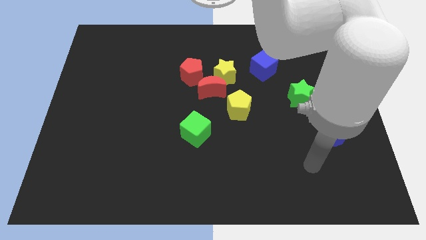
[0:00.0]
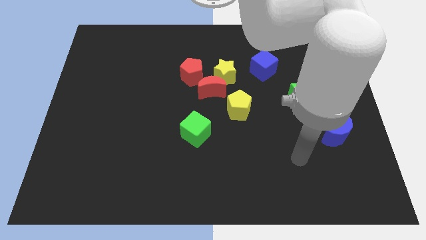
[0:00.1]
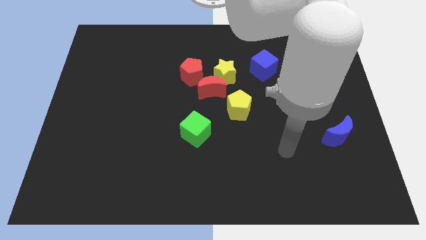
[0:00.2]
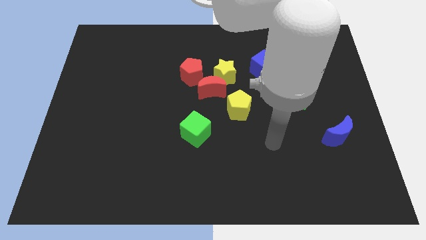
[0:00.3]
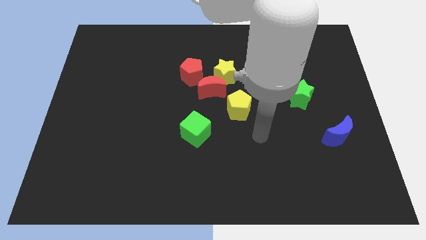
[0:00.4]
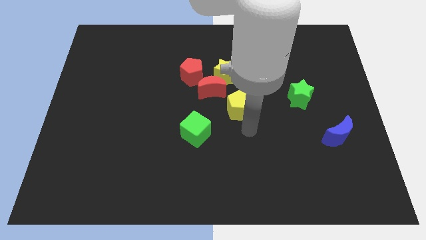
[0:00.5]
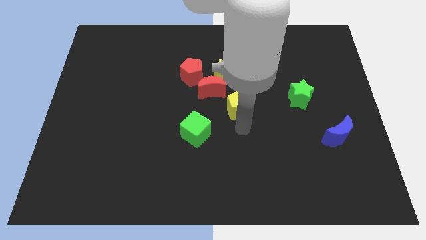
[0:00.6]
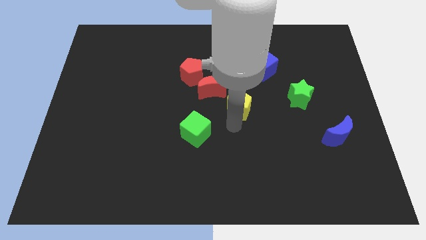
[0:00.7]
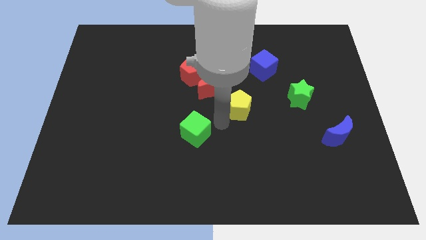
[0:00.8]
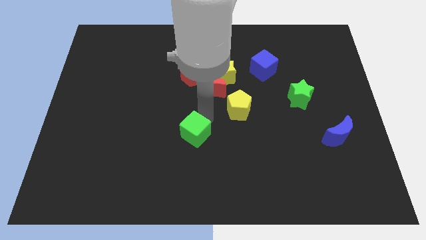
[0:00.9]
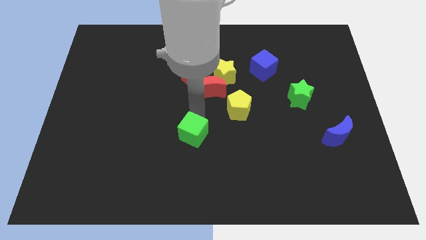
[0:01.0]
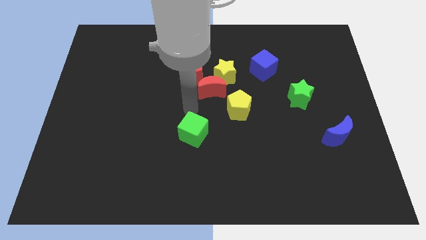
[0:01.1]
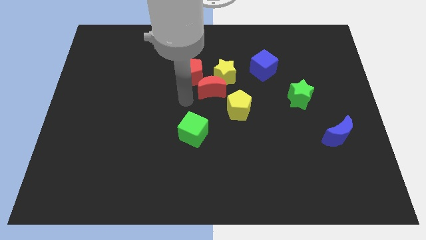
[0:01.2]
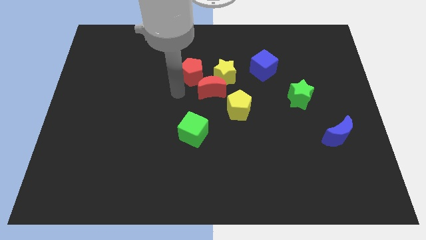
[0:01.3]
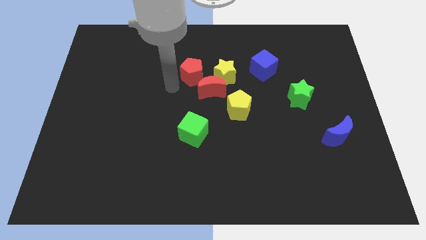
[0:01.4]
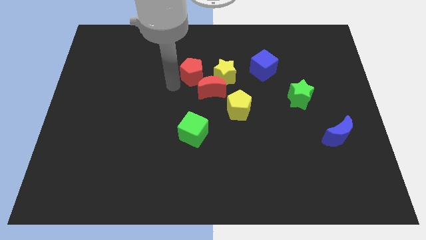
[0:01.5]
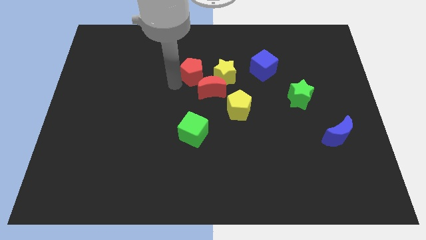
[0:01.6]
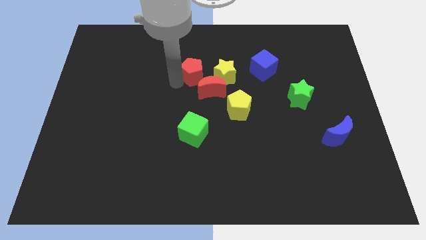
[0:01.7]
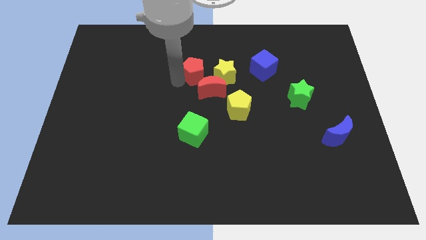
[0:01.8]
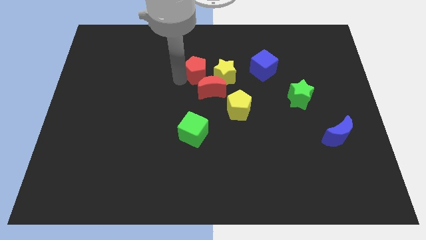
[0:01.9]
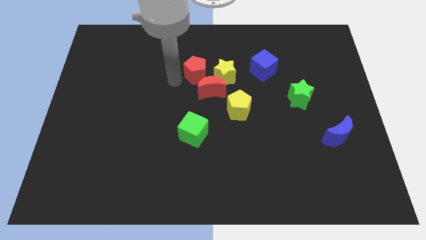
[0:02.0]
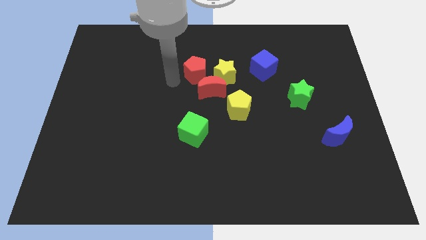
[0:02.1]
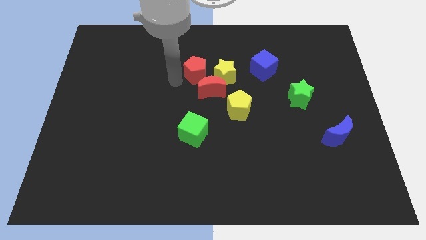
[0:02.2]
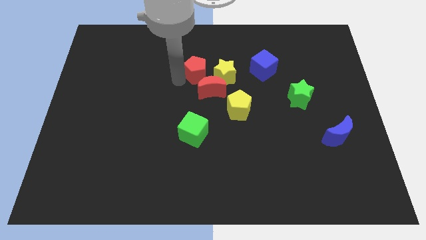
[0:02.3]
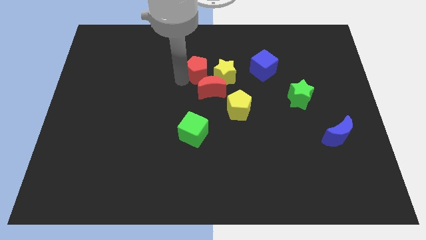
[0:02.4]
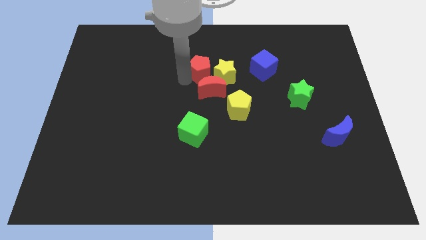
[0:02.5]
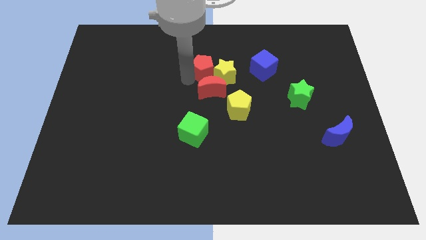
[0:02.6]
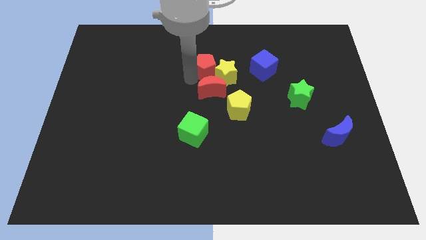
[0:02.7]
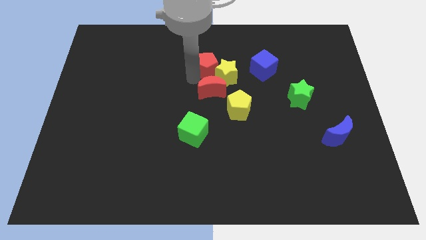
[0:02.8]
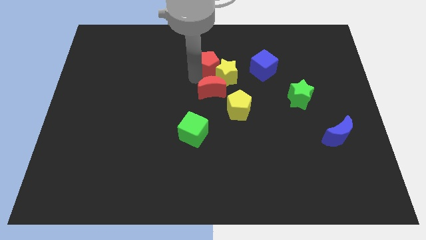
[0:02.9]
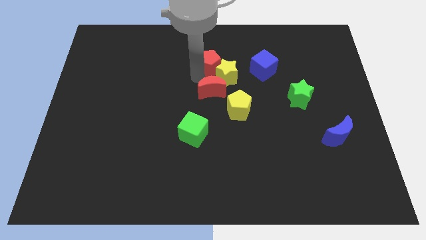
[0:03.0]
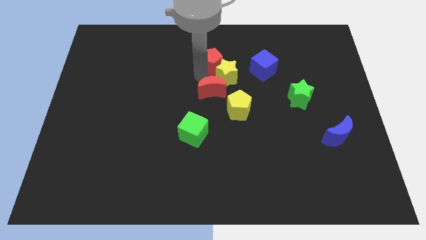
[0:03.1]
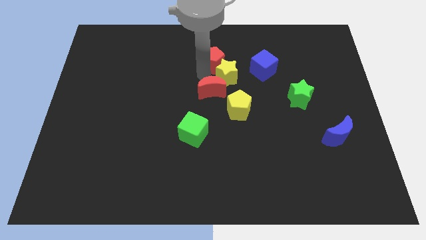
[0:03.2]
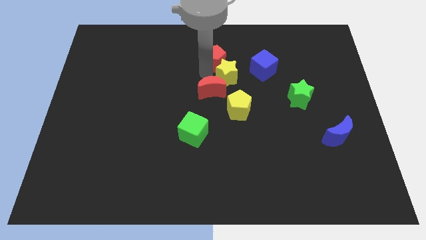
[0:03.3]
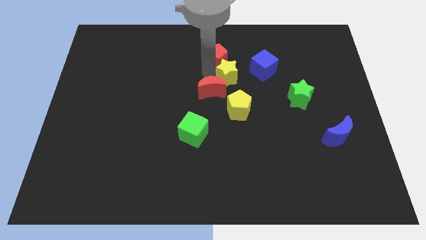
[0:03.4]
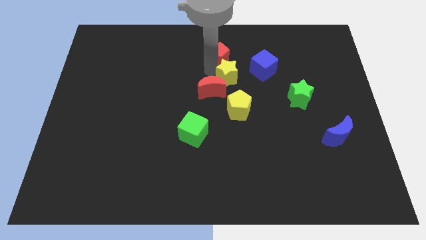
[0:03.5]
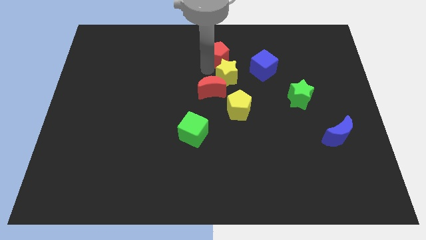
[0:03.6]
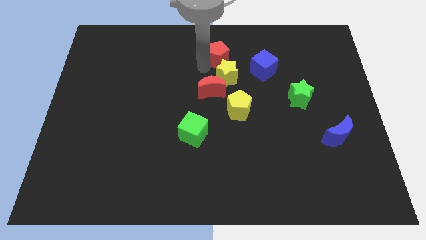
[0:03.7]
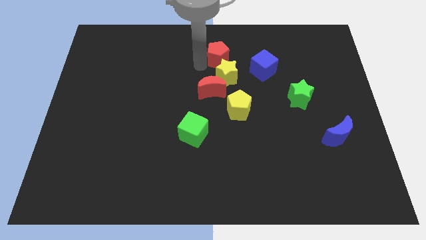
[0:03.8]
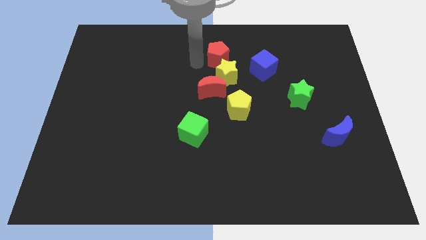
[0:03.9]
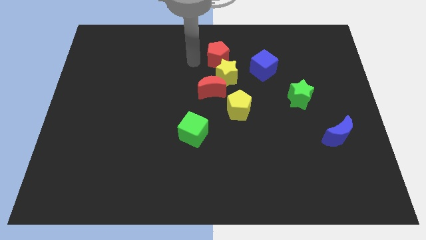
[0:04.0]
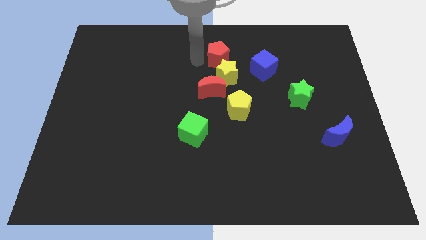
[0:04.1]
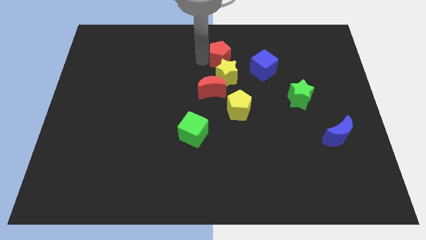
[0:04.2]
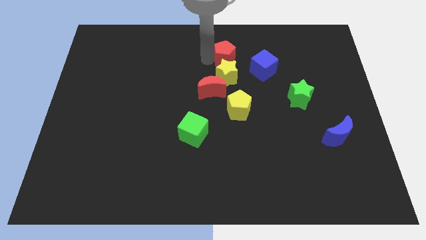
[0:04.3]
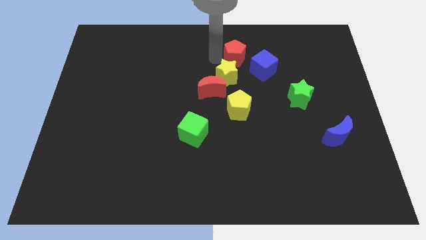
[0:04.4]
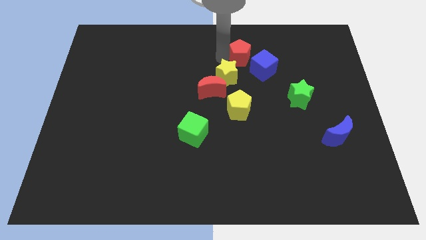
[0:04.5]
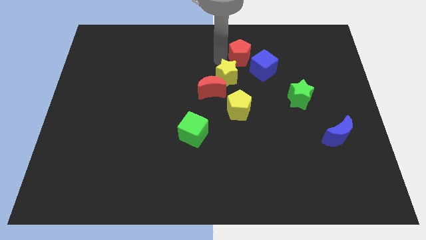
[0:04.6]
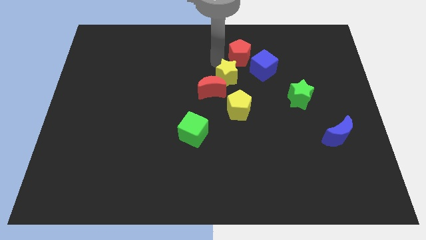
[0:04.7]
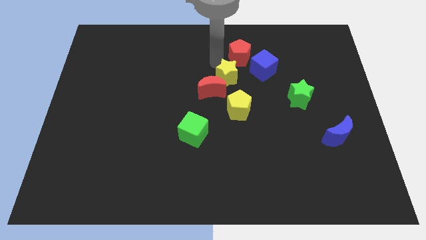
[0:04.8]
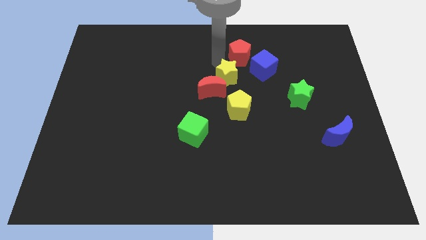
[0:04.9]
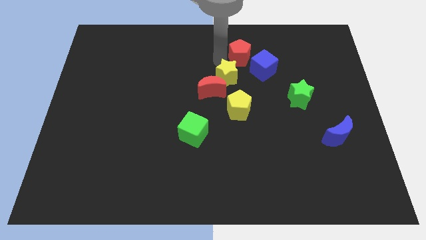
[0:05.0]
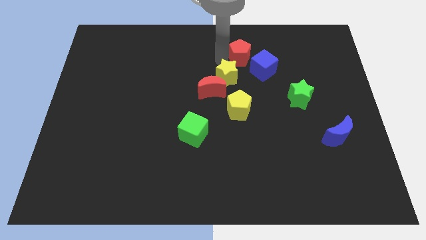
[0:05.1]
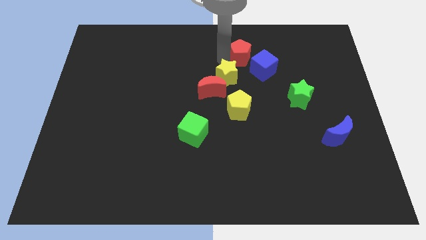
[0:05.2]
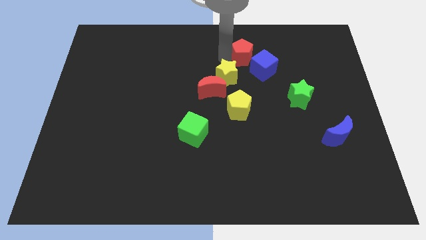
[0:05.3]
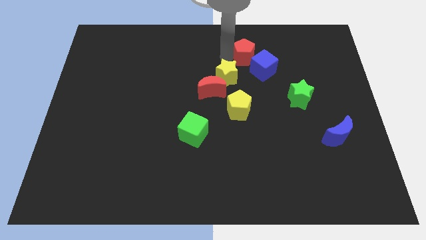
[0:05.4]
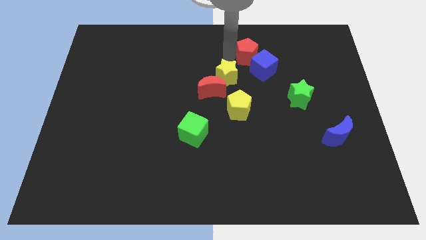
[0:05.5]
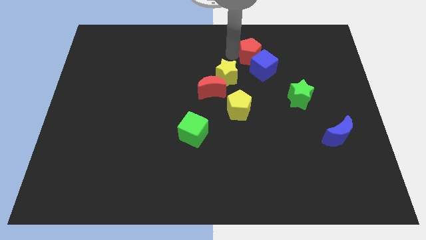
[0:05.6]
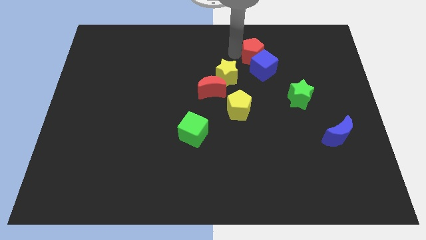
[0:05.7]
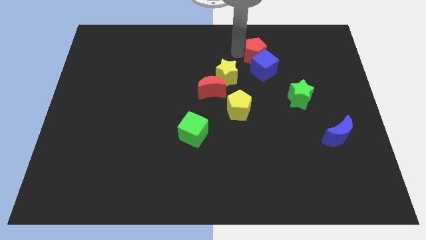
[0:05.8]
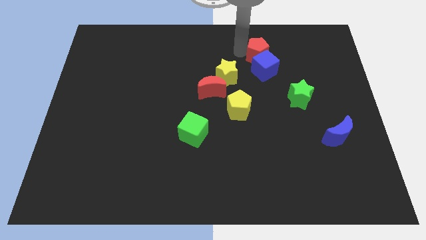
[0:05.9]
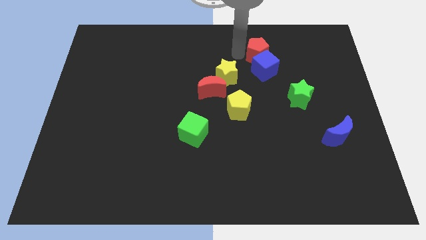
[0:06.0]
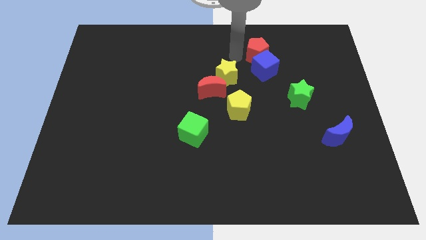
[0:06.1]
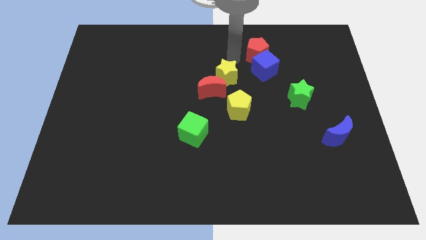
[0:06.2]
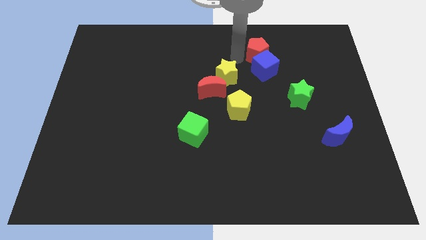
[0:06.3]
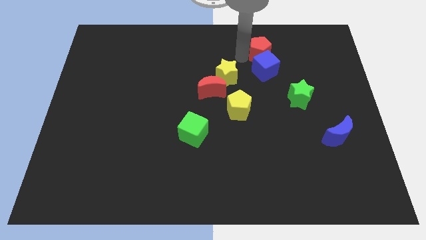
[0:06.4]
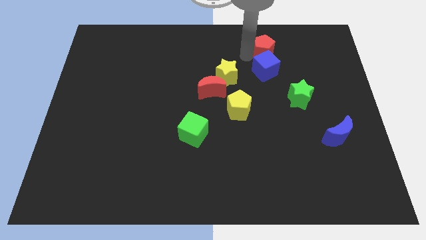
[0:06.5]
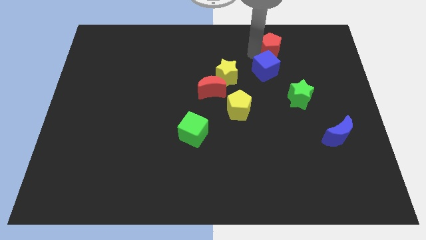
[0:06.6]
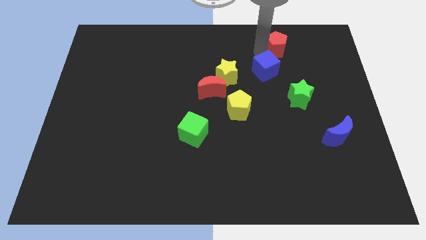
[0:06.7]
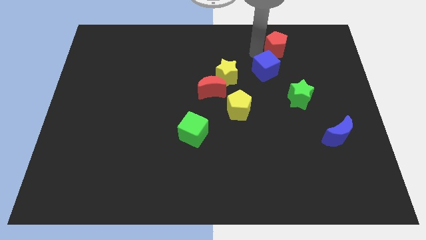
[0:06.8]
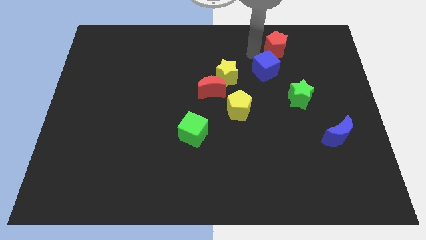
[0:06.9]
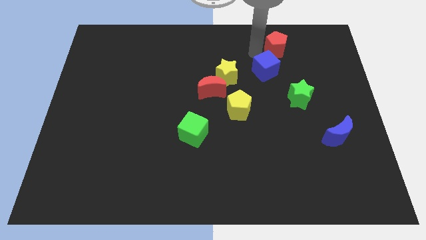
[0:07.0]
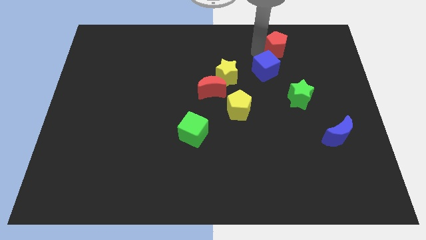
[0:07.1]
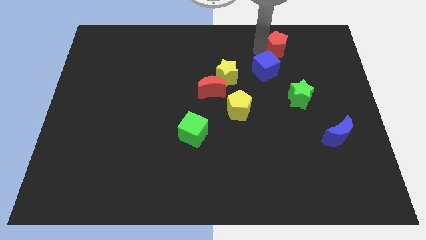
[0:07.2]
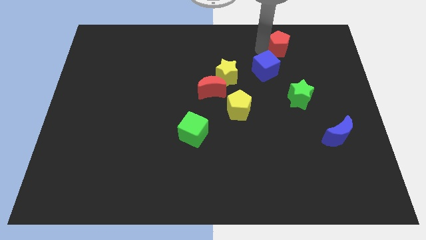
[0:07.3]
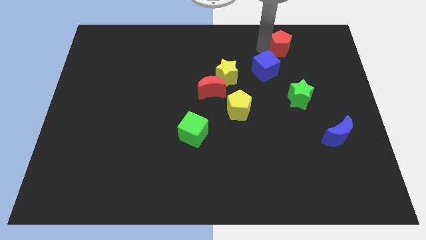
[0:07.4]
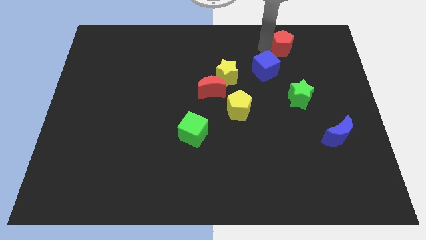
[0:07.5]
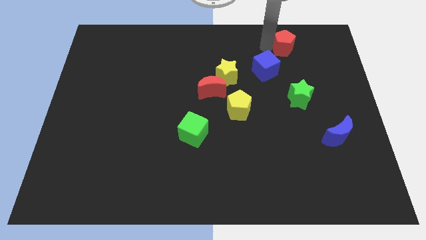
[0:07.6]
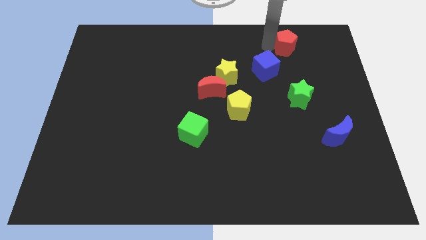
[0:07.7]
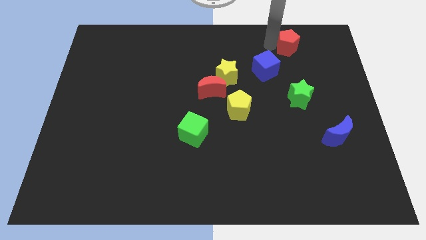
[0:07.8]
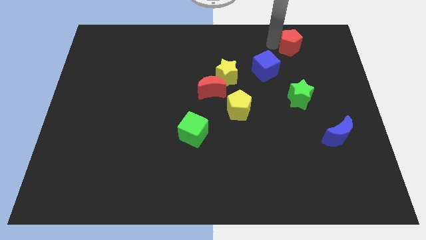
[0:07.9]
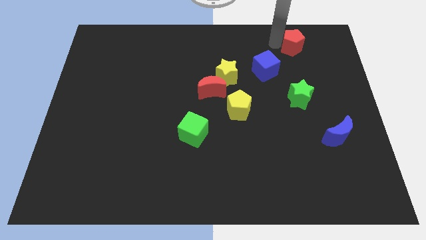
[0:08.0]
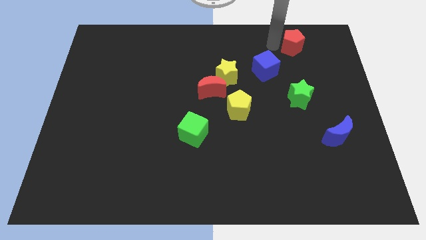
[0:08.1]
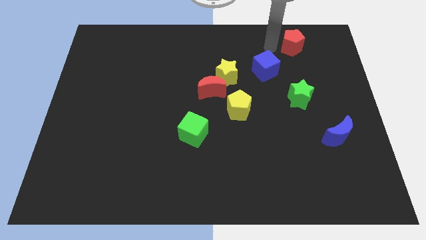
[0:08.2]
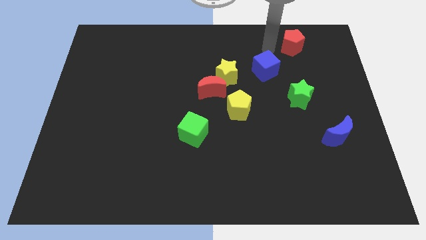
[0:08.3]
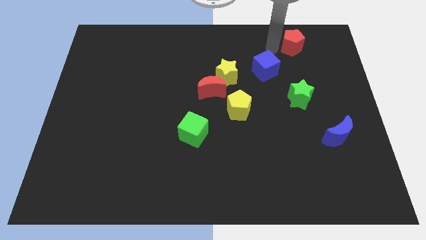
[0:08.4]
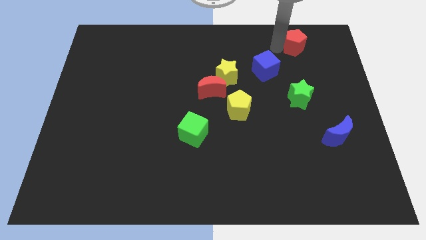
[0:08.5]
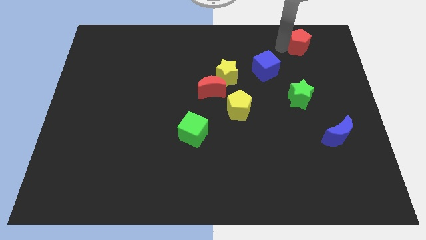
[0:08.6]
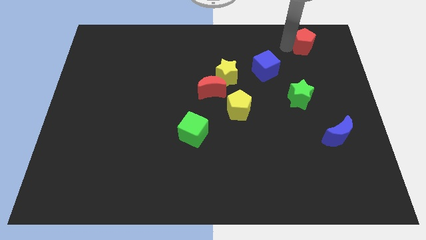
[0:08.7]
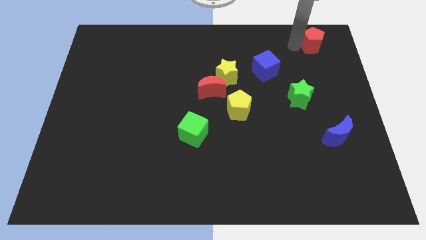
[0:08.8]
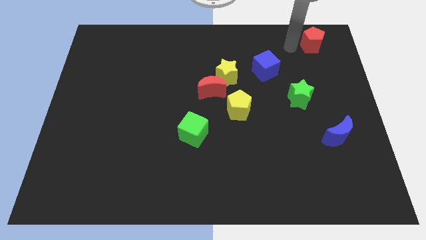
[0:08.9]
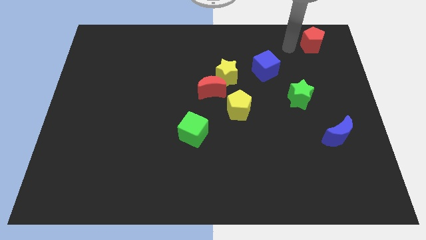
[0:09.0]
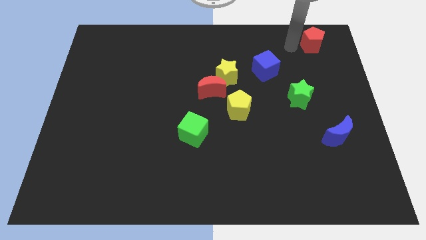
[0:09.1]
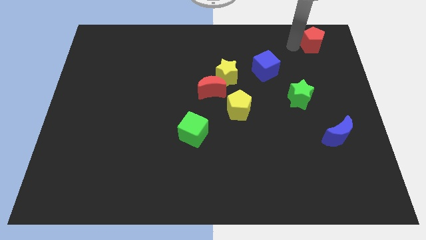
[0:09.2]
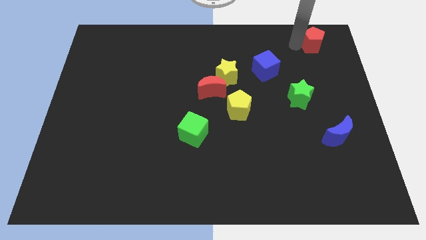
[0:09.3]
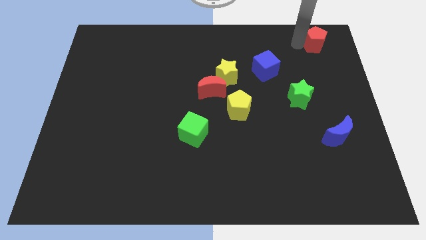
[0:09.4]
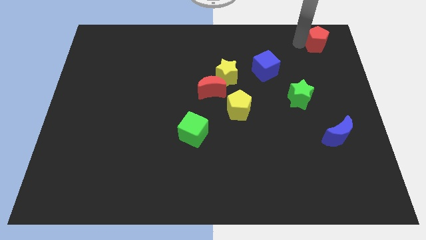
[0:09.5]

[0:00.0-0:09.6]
put the red pentagon to the top right
